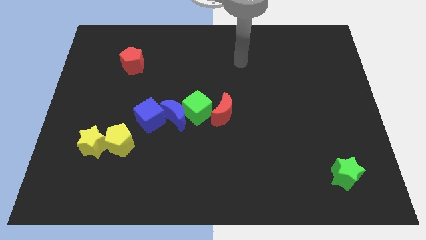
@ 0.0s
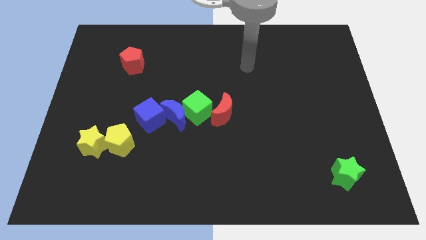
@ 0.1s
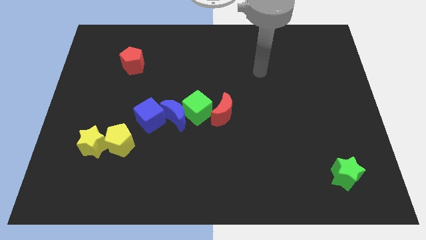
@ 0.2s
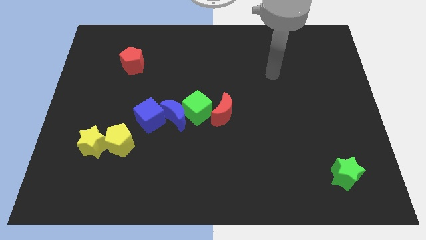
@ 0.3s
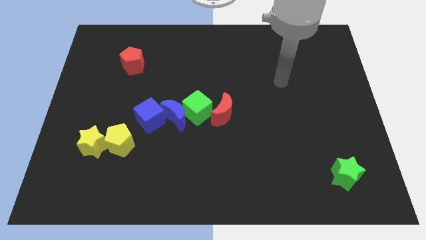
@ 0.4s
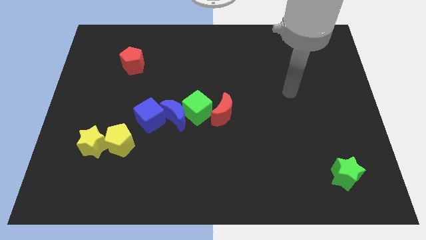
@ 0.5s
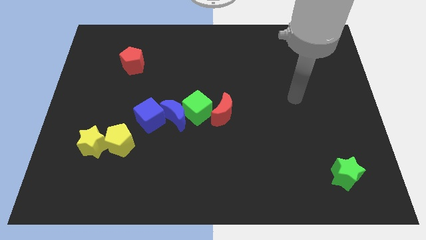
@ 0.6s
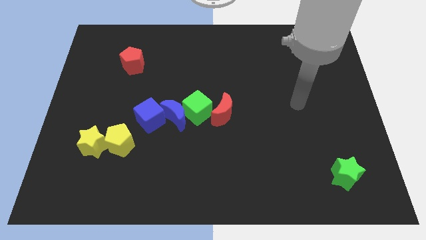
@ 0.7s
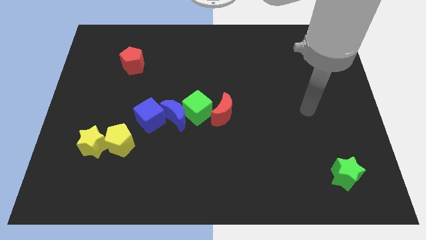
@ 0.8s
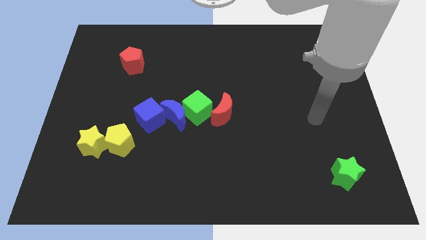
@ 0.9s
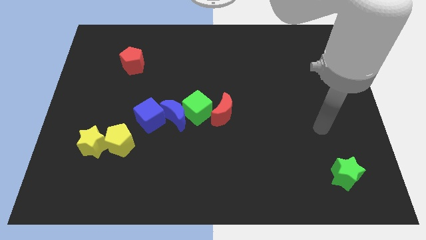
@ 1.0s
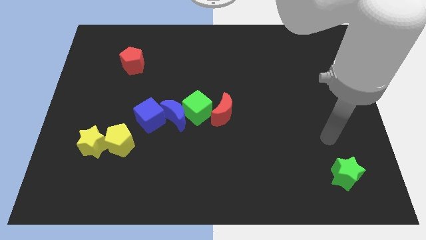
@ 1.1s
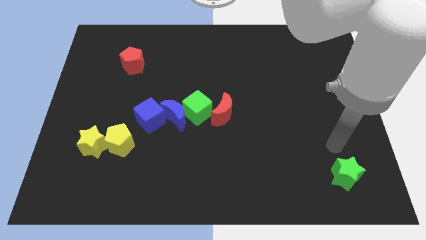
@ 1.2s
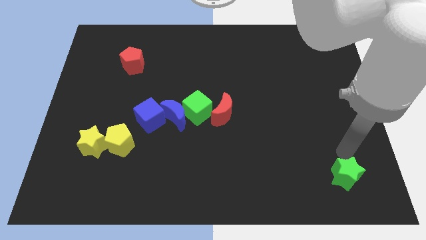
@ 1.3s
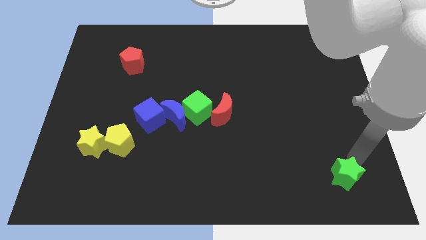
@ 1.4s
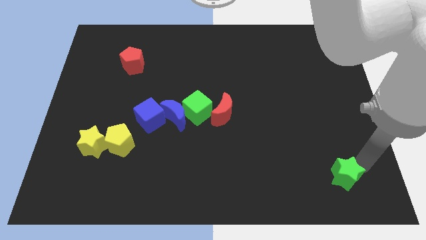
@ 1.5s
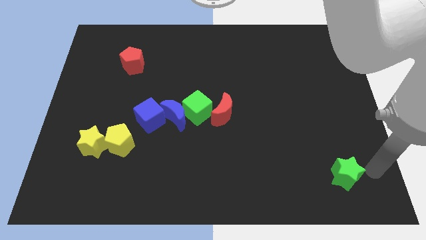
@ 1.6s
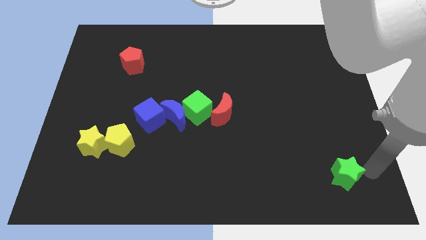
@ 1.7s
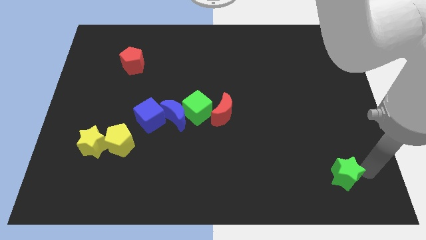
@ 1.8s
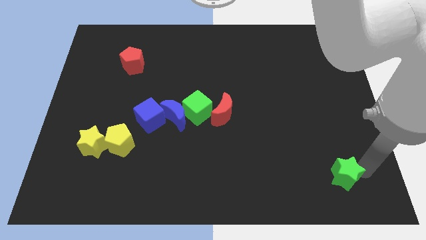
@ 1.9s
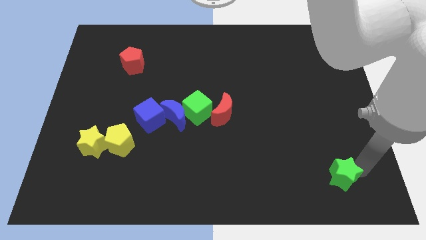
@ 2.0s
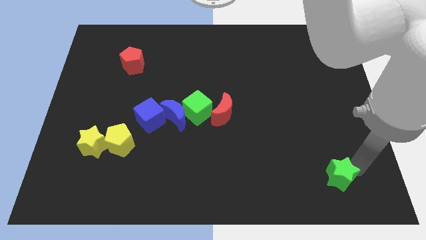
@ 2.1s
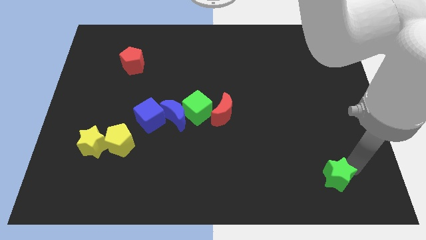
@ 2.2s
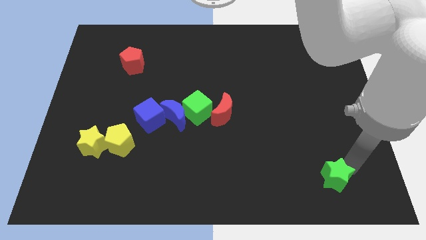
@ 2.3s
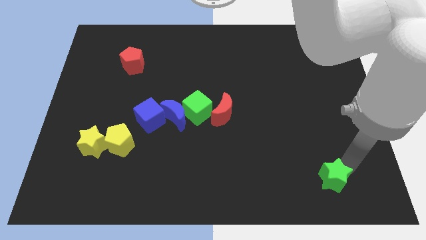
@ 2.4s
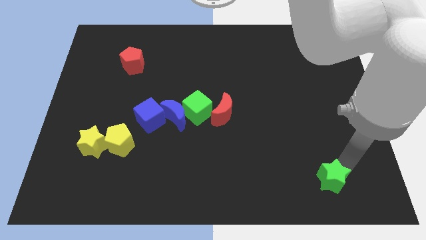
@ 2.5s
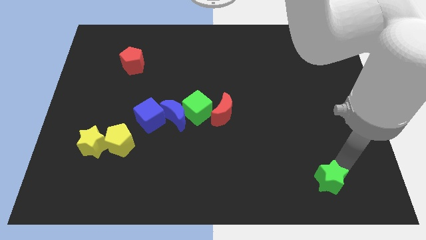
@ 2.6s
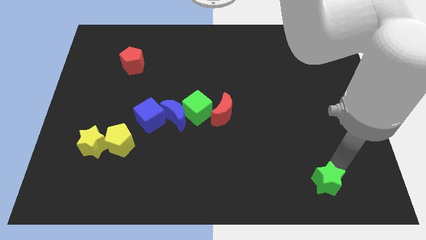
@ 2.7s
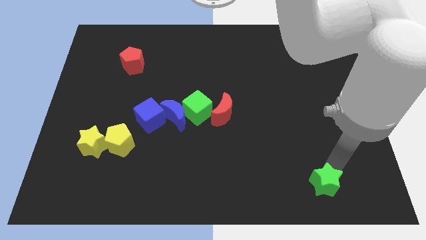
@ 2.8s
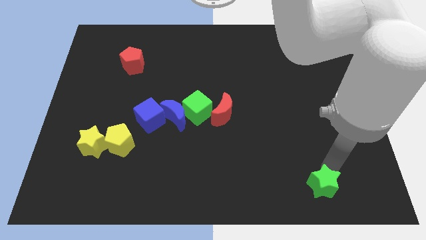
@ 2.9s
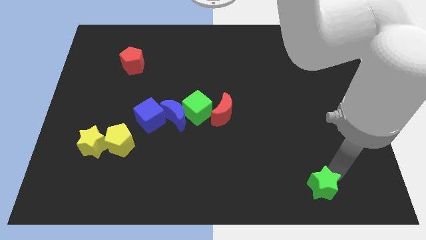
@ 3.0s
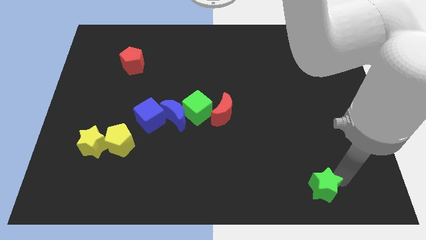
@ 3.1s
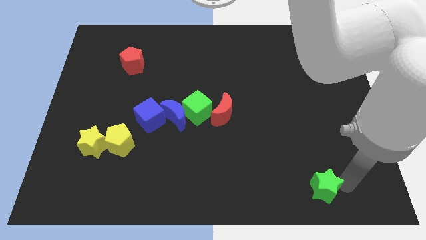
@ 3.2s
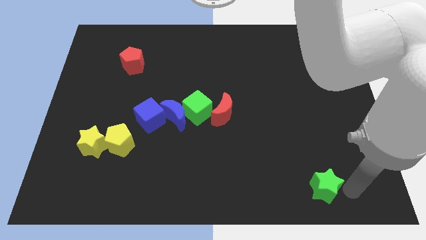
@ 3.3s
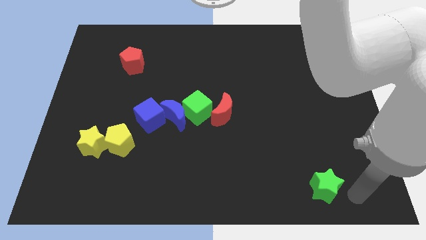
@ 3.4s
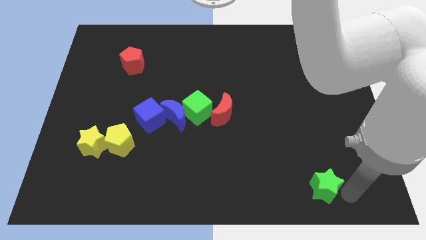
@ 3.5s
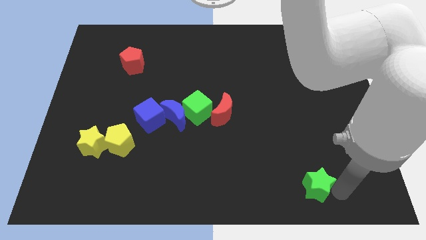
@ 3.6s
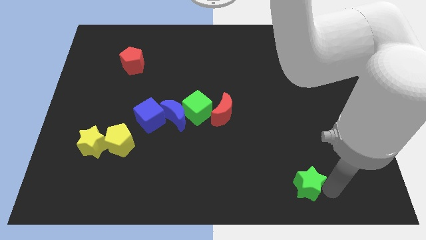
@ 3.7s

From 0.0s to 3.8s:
slide the green star a bit to the left

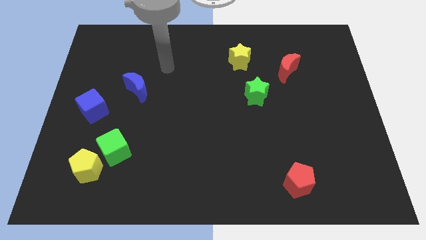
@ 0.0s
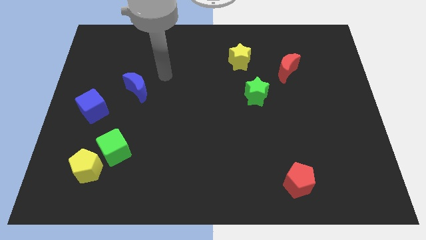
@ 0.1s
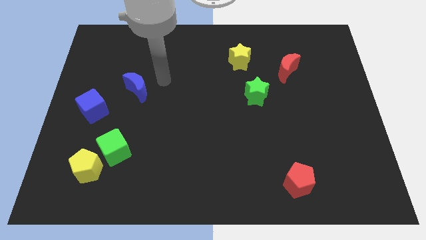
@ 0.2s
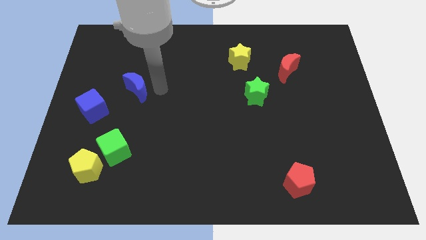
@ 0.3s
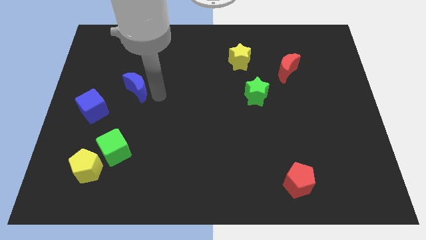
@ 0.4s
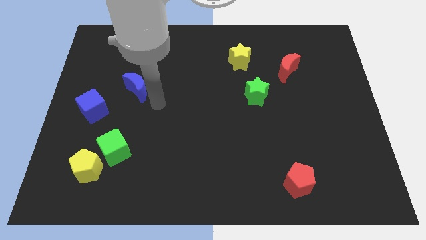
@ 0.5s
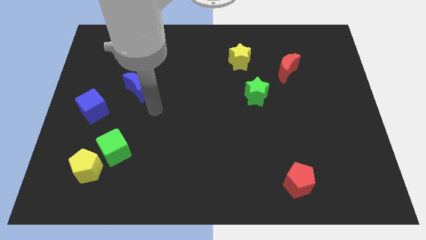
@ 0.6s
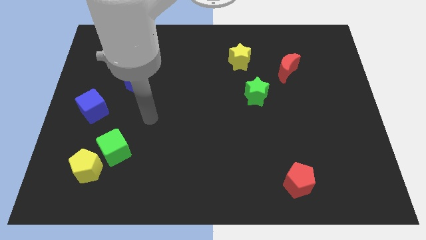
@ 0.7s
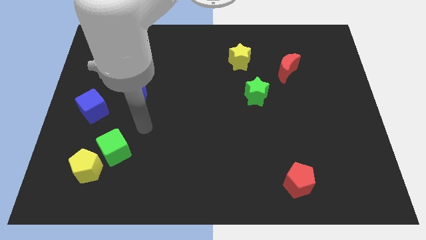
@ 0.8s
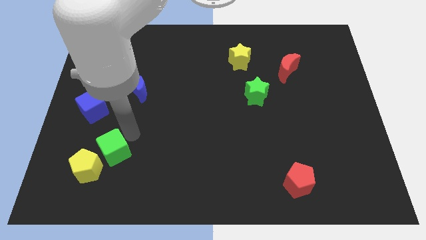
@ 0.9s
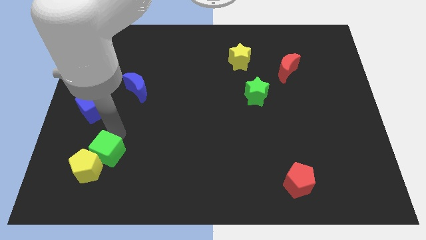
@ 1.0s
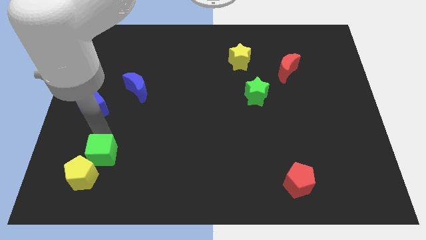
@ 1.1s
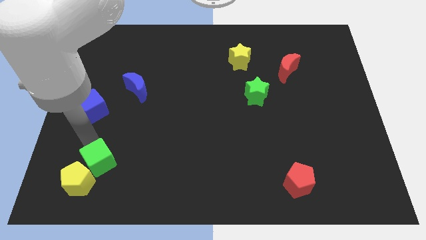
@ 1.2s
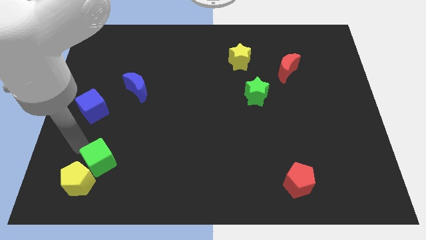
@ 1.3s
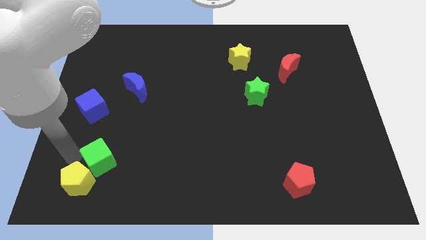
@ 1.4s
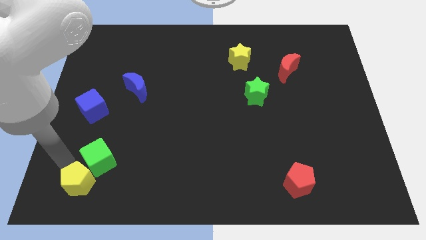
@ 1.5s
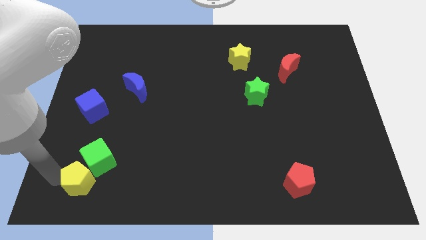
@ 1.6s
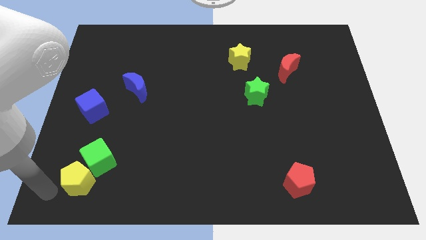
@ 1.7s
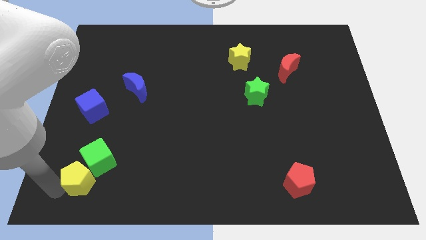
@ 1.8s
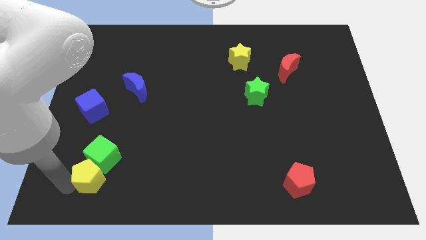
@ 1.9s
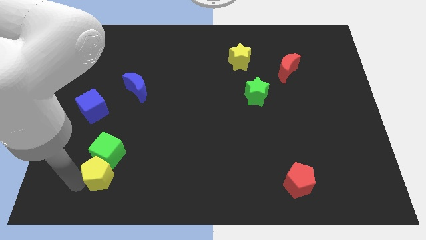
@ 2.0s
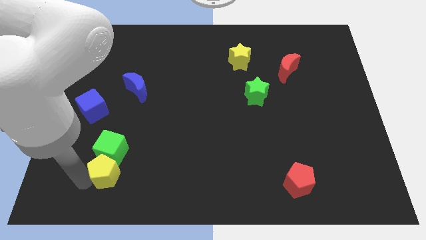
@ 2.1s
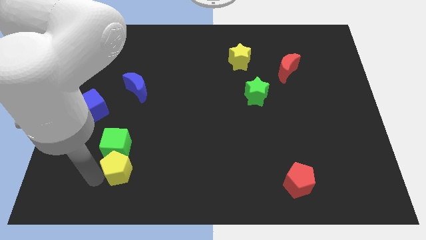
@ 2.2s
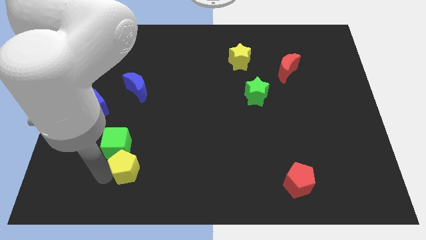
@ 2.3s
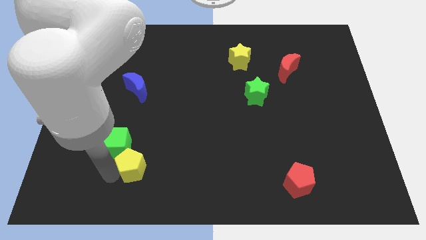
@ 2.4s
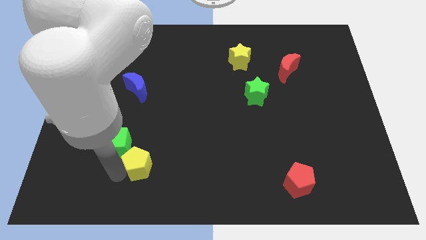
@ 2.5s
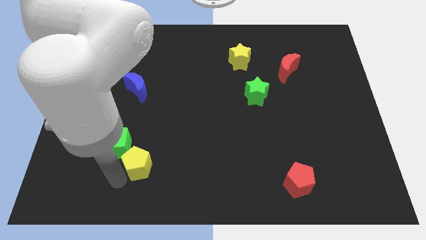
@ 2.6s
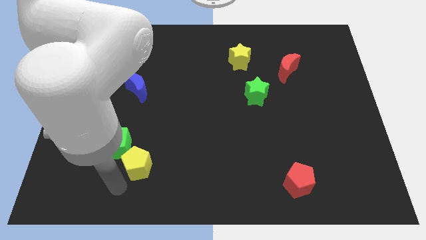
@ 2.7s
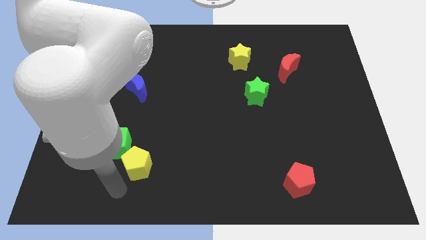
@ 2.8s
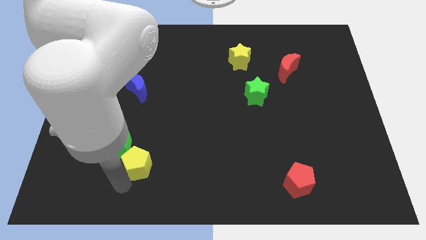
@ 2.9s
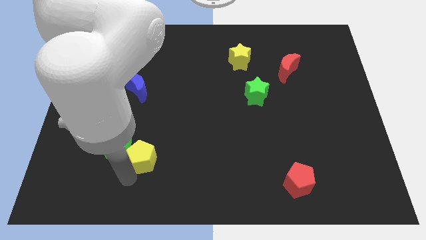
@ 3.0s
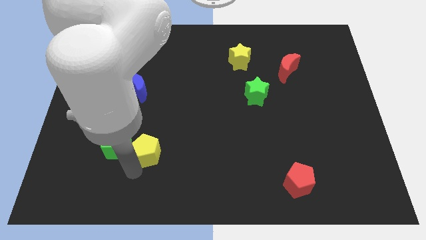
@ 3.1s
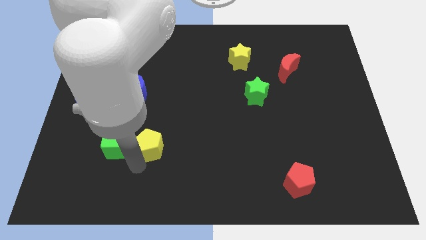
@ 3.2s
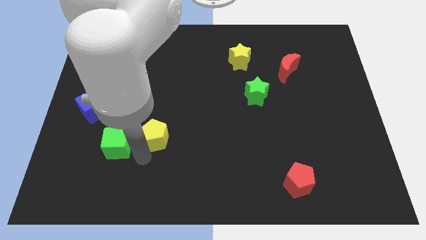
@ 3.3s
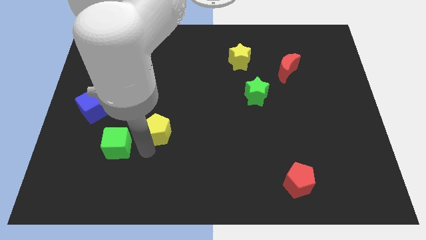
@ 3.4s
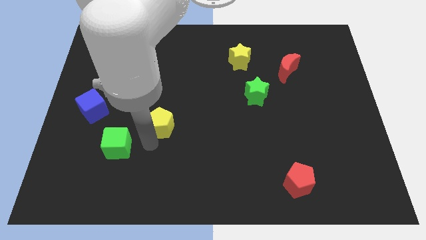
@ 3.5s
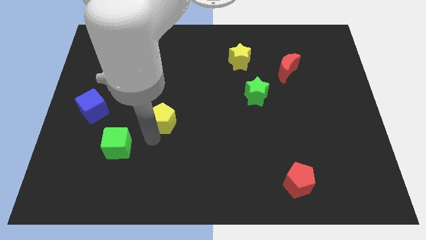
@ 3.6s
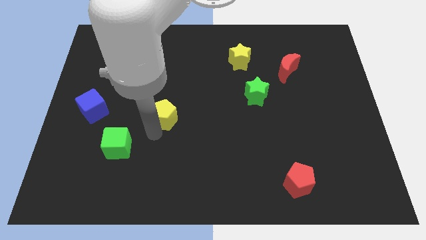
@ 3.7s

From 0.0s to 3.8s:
move the yellow pentagon up and to the right

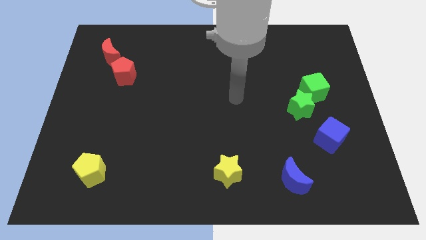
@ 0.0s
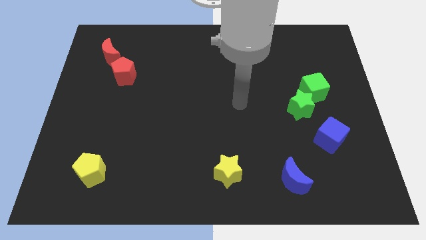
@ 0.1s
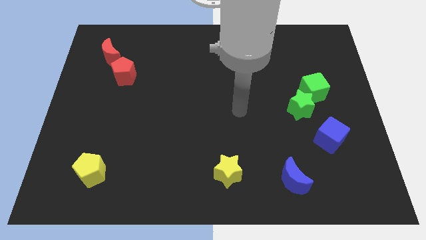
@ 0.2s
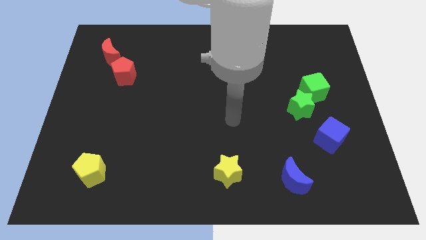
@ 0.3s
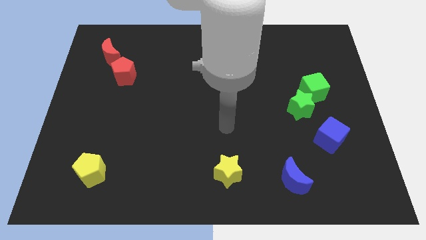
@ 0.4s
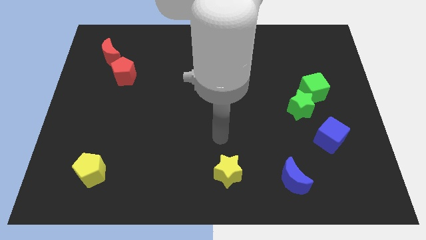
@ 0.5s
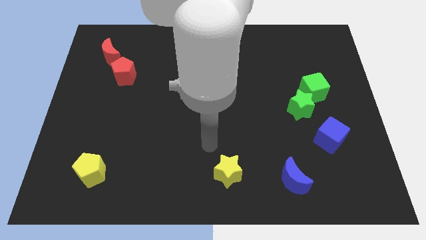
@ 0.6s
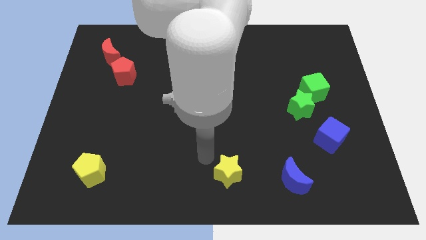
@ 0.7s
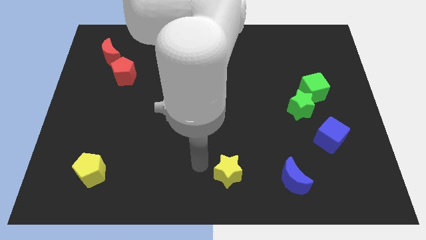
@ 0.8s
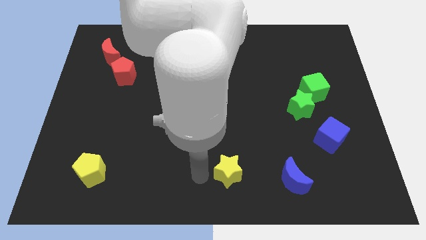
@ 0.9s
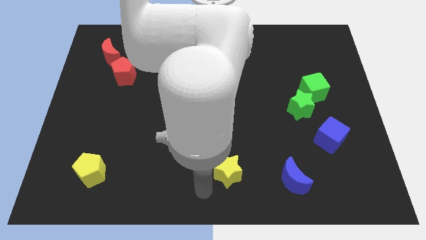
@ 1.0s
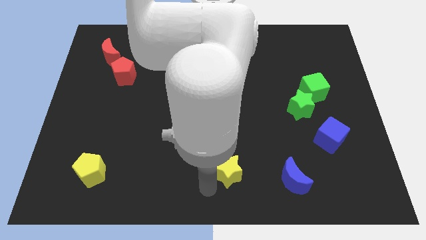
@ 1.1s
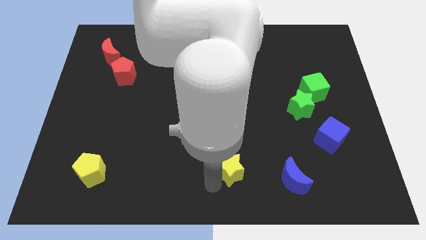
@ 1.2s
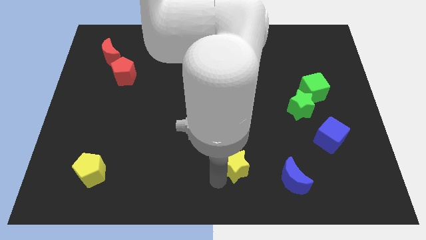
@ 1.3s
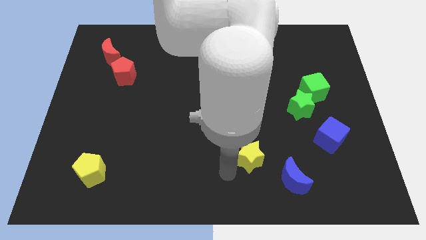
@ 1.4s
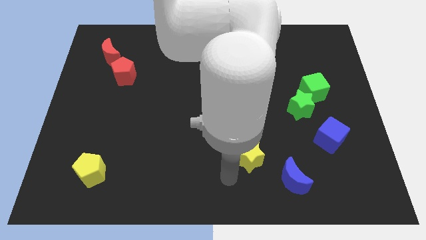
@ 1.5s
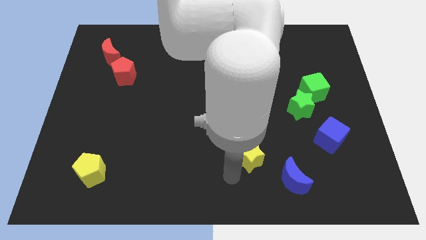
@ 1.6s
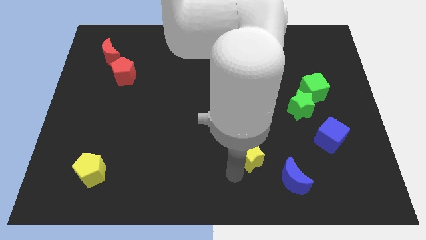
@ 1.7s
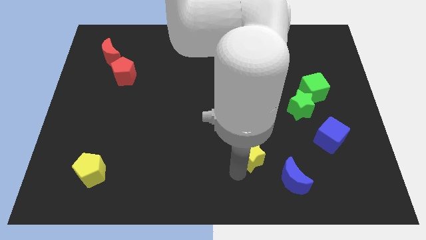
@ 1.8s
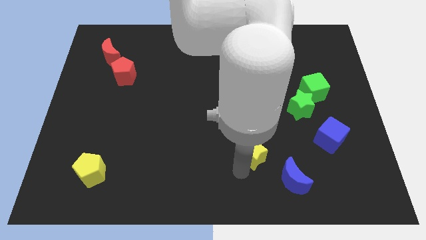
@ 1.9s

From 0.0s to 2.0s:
push the yellow star upwards and to the right a little bit
